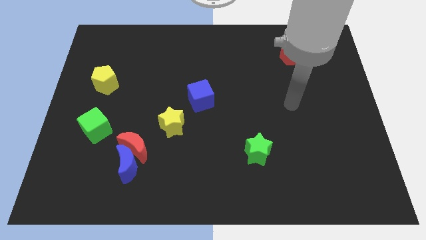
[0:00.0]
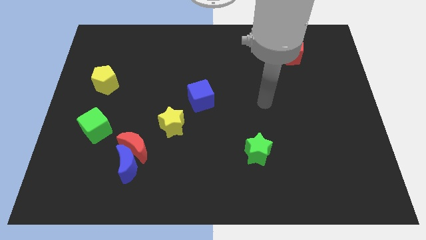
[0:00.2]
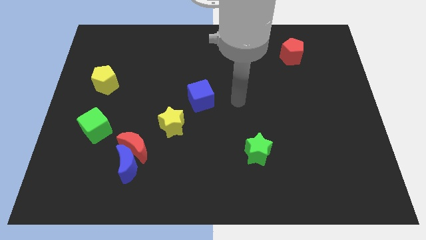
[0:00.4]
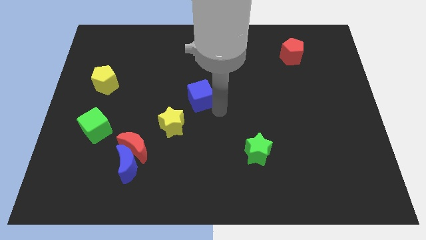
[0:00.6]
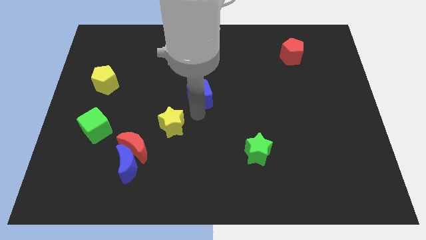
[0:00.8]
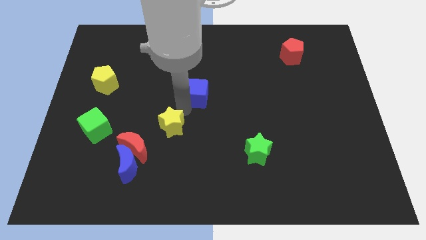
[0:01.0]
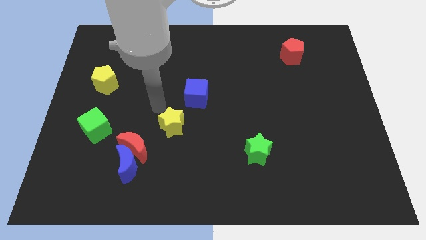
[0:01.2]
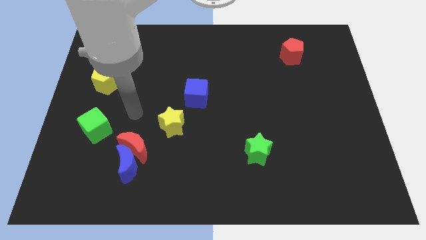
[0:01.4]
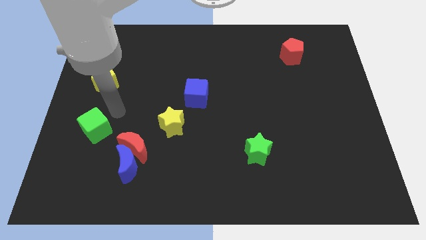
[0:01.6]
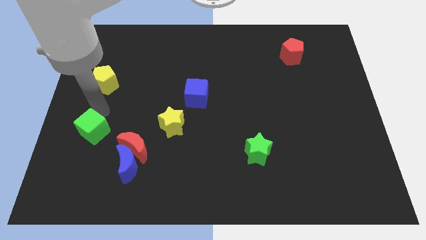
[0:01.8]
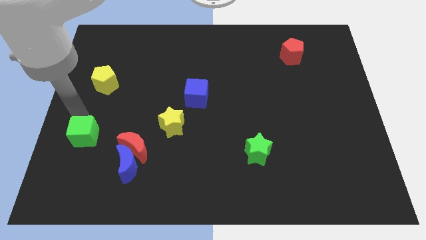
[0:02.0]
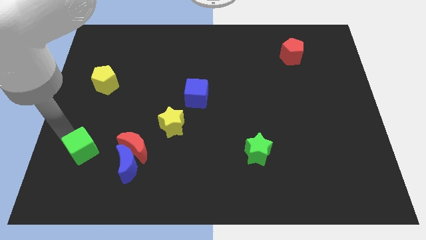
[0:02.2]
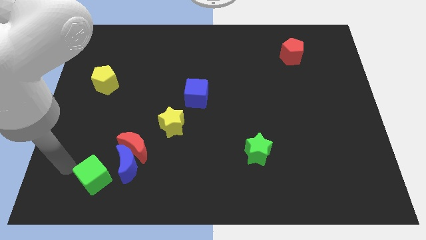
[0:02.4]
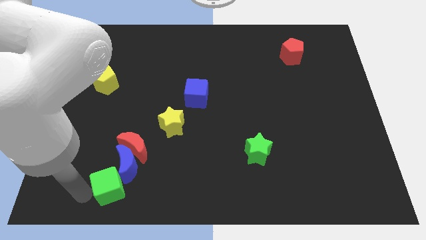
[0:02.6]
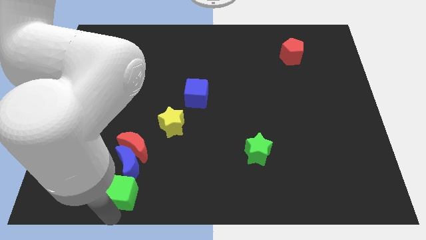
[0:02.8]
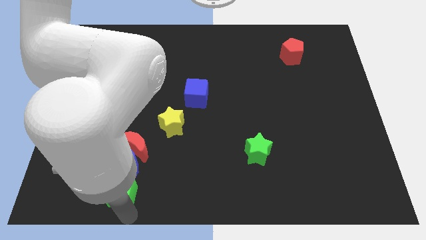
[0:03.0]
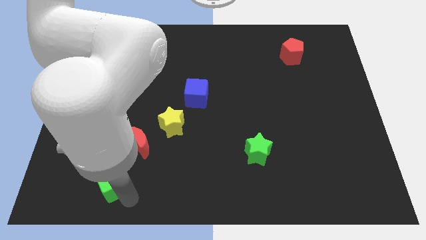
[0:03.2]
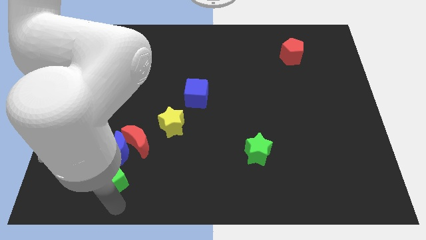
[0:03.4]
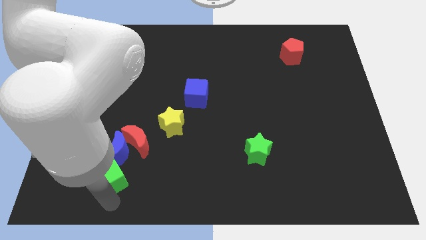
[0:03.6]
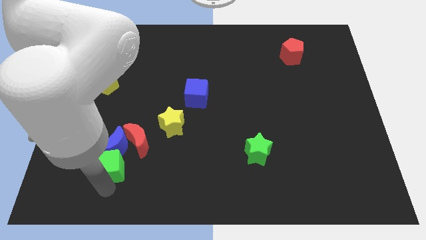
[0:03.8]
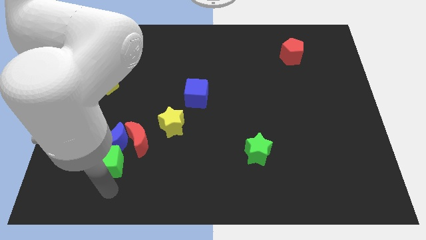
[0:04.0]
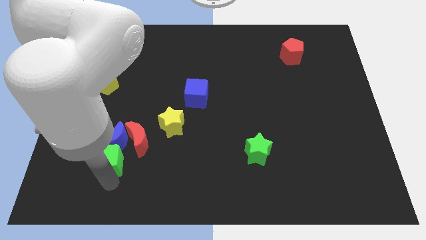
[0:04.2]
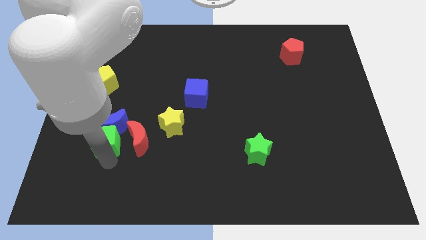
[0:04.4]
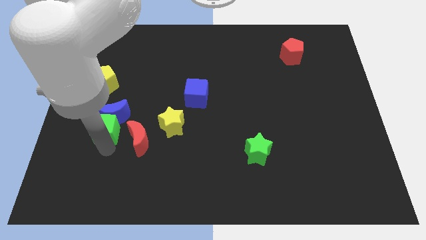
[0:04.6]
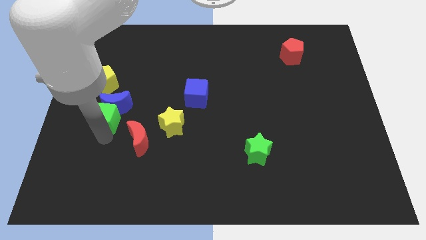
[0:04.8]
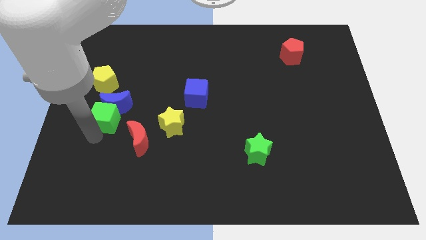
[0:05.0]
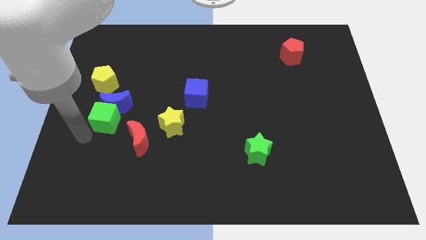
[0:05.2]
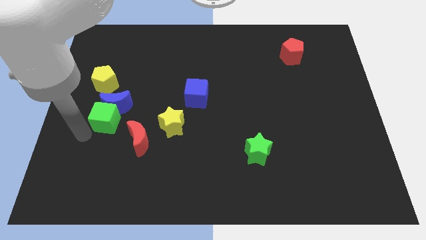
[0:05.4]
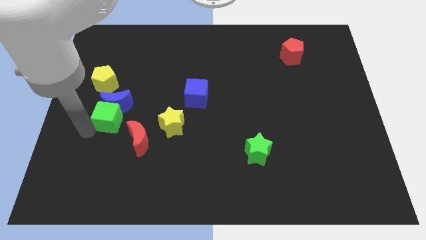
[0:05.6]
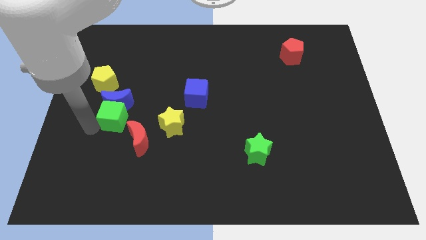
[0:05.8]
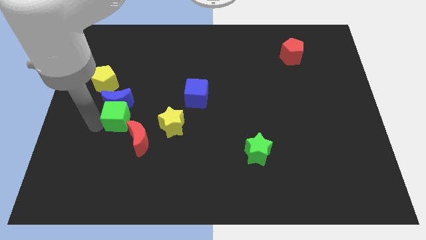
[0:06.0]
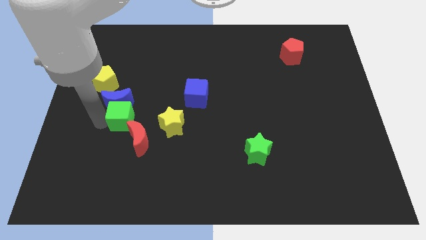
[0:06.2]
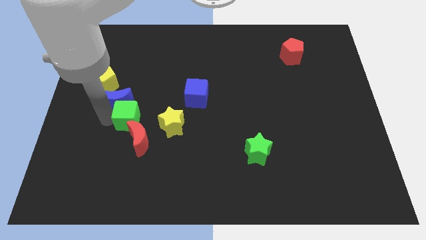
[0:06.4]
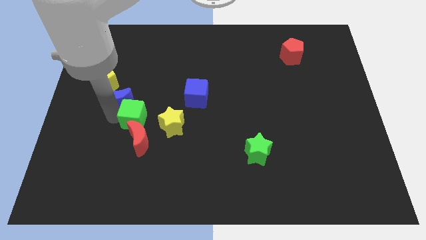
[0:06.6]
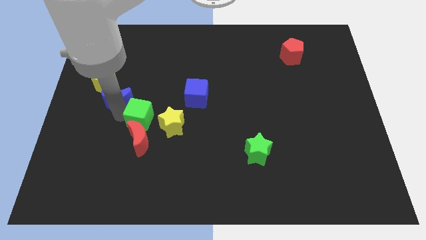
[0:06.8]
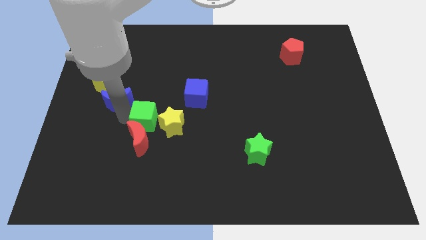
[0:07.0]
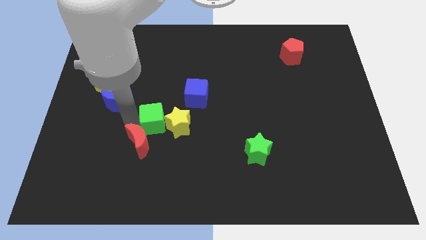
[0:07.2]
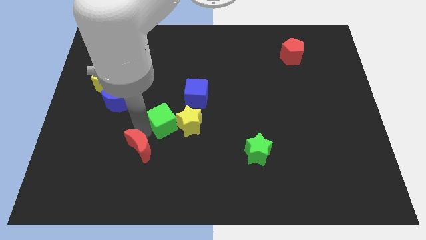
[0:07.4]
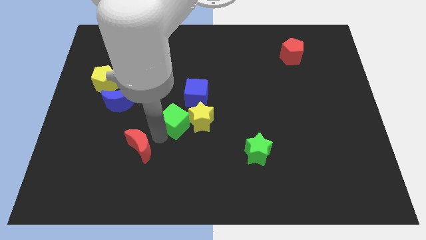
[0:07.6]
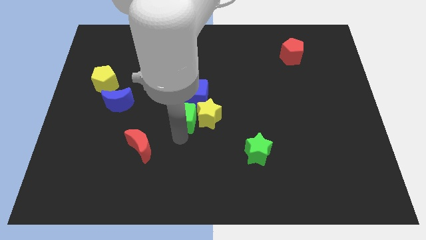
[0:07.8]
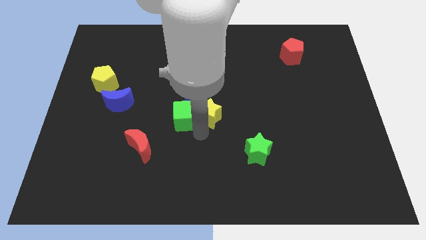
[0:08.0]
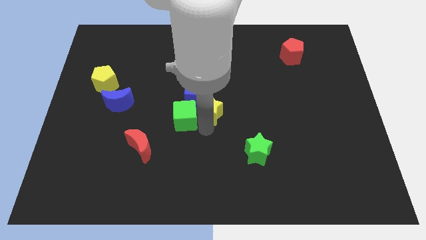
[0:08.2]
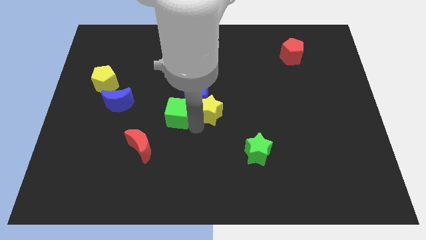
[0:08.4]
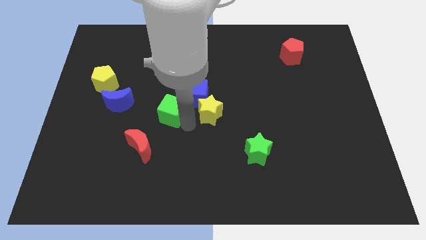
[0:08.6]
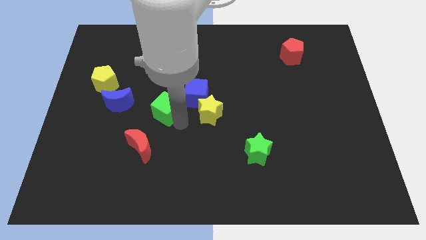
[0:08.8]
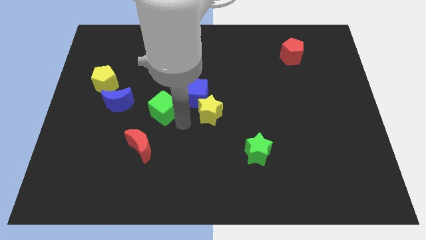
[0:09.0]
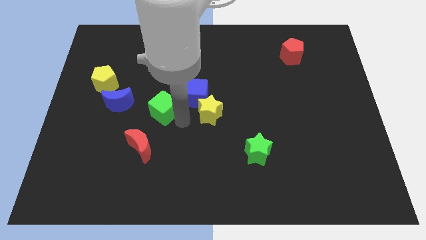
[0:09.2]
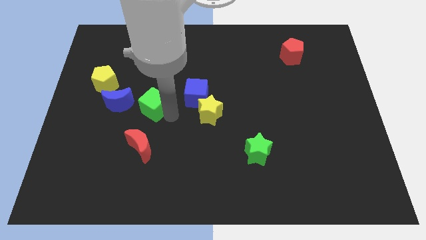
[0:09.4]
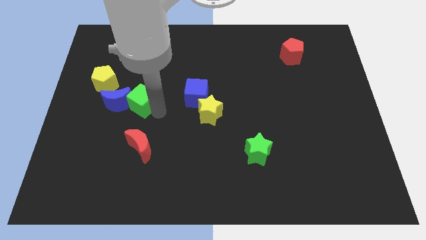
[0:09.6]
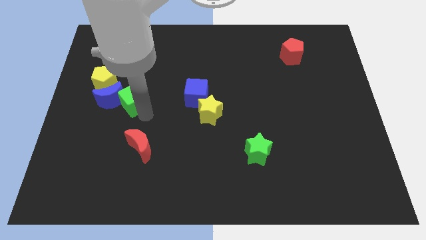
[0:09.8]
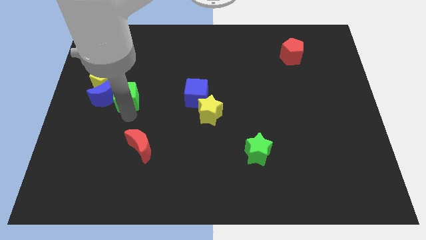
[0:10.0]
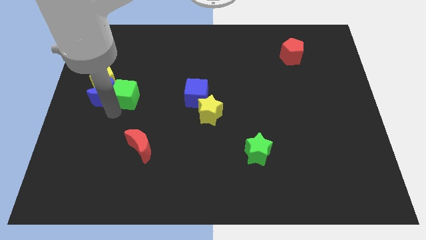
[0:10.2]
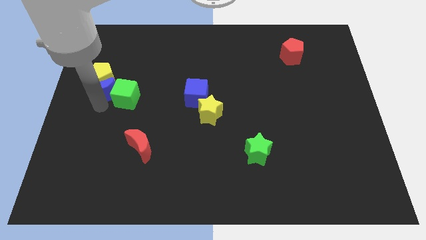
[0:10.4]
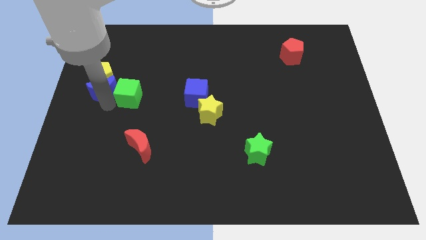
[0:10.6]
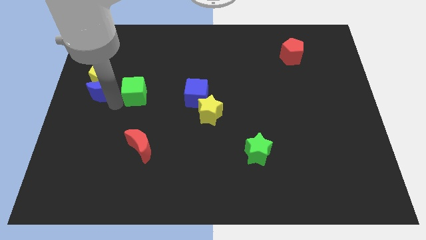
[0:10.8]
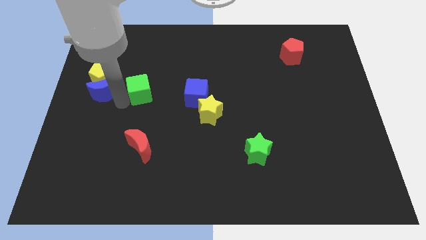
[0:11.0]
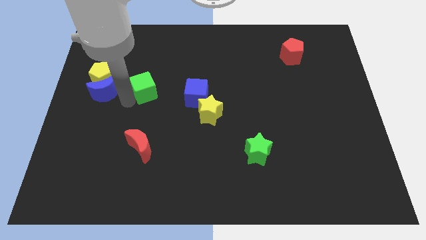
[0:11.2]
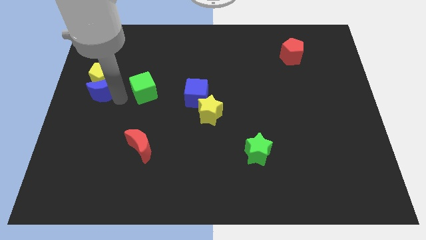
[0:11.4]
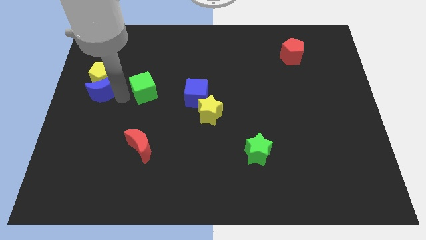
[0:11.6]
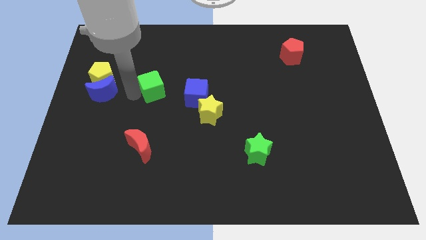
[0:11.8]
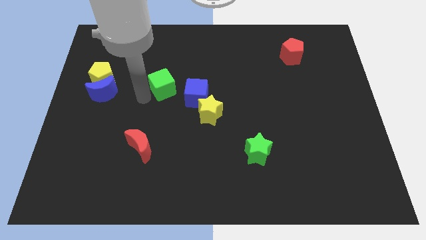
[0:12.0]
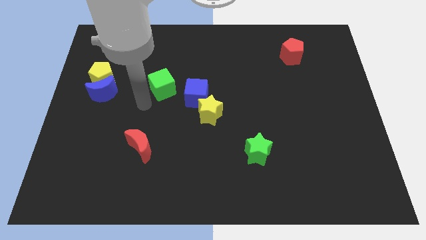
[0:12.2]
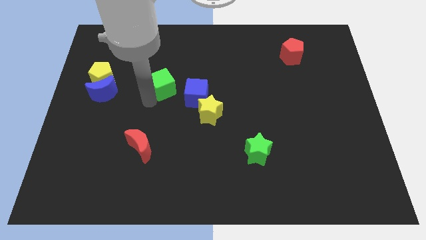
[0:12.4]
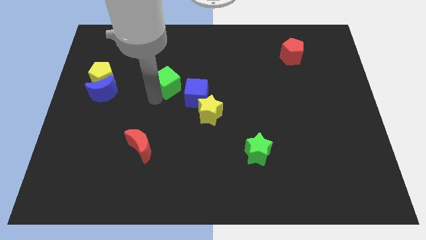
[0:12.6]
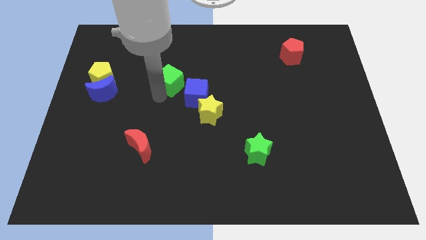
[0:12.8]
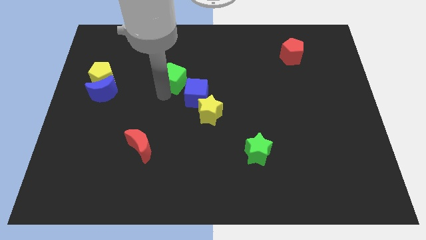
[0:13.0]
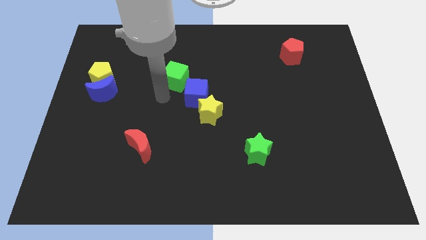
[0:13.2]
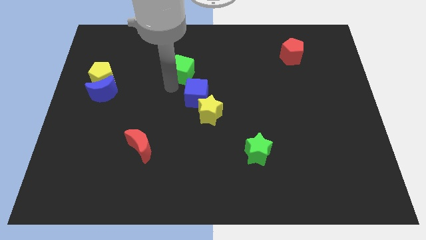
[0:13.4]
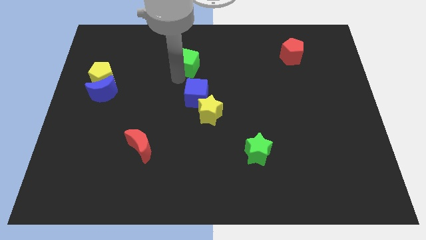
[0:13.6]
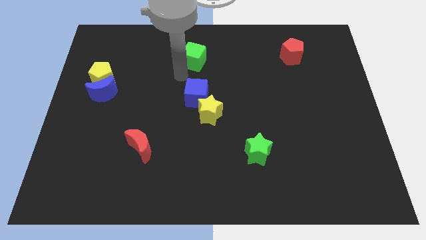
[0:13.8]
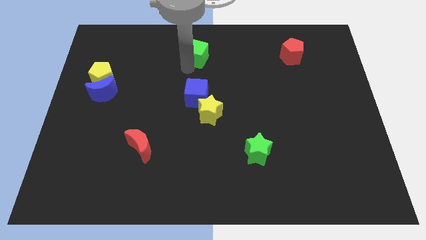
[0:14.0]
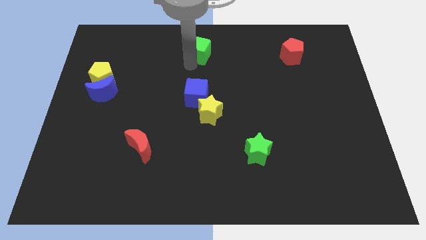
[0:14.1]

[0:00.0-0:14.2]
slide the green cube to the top side
